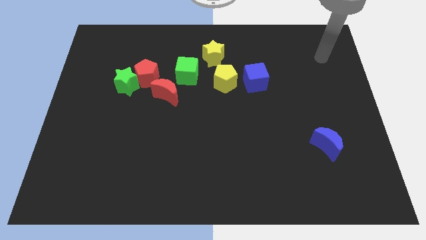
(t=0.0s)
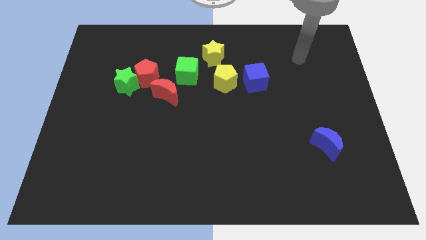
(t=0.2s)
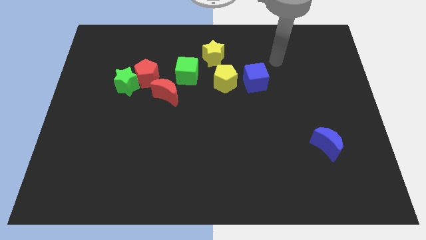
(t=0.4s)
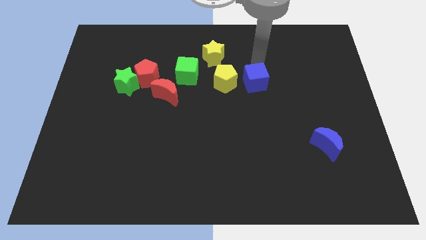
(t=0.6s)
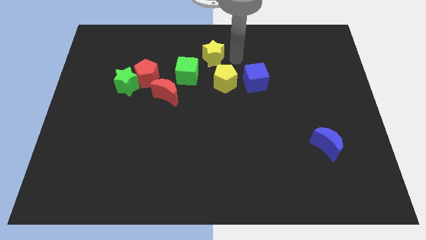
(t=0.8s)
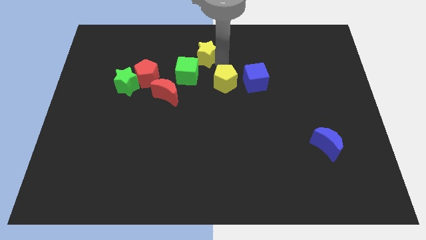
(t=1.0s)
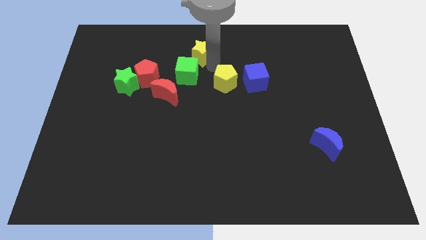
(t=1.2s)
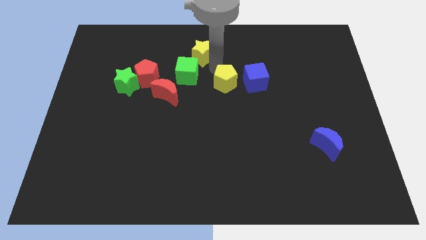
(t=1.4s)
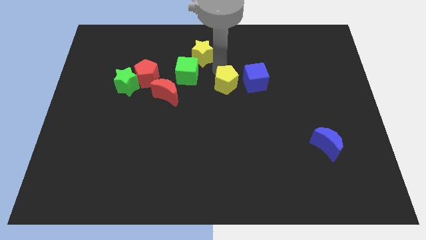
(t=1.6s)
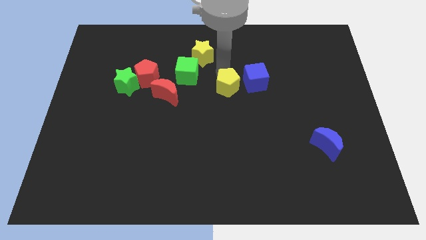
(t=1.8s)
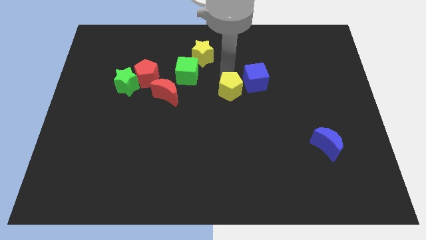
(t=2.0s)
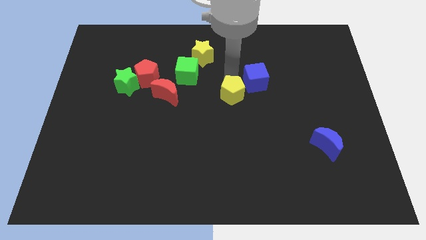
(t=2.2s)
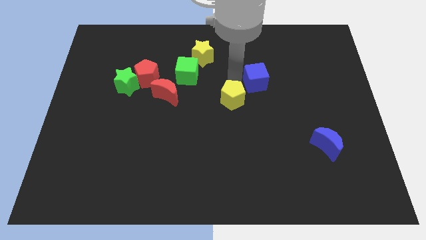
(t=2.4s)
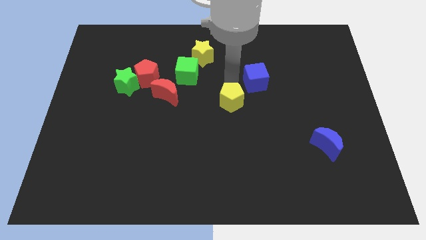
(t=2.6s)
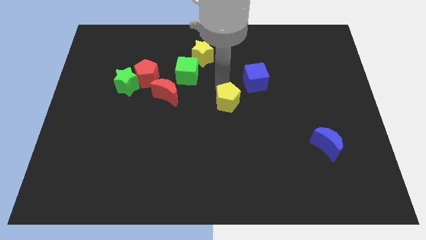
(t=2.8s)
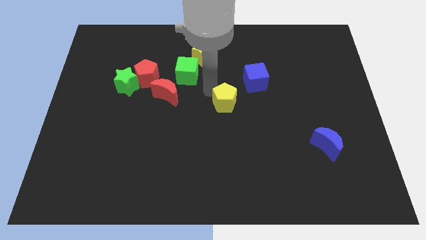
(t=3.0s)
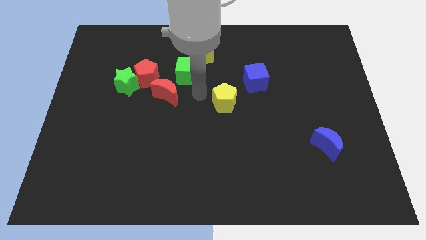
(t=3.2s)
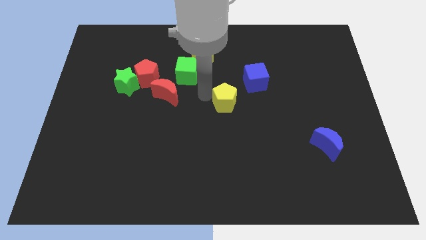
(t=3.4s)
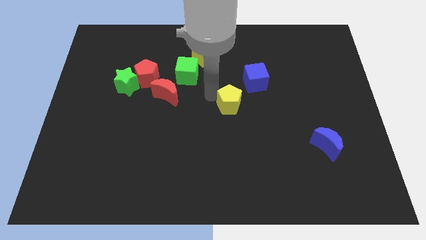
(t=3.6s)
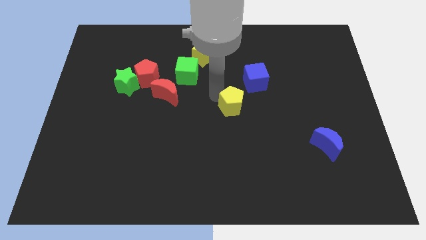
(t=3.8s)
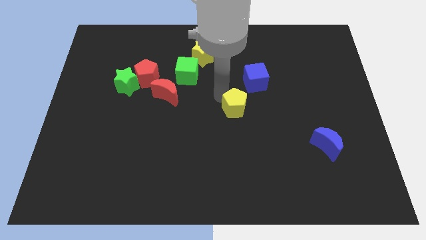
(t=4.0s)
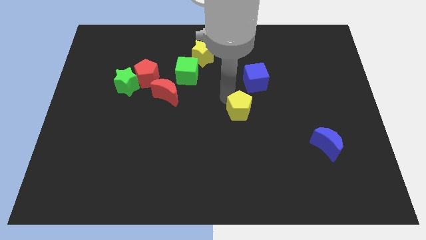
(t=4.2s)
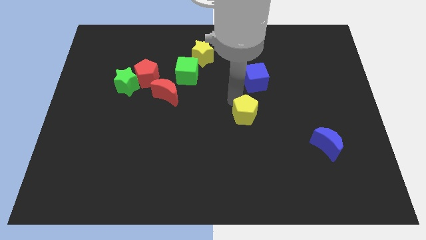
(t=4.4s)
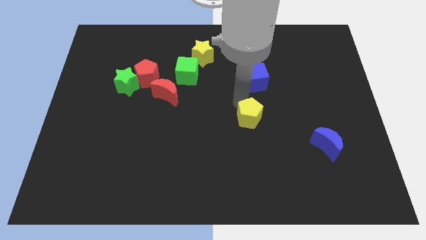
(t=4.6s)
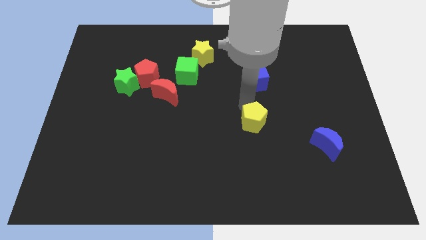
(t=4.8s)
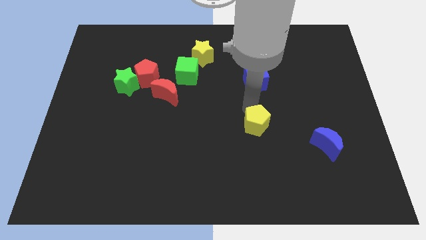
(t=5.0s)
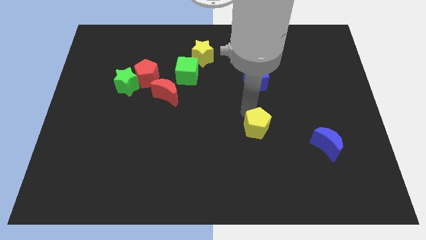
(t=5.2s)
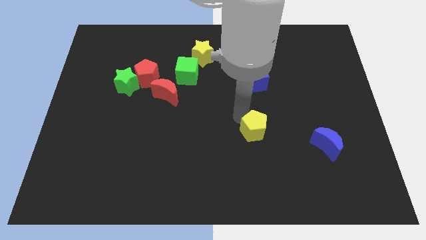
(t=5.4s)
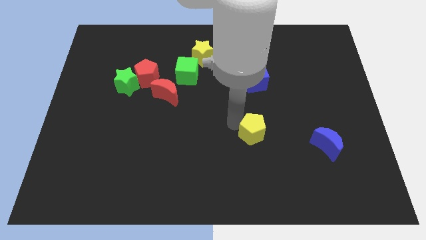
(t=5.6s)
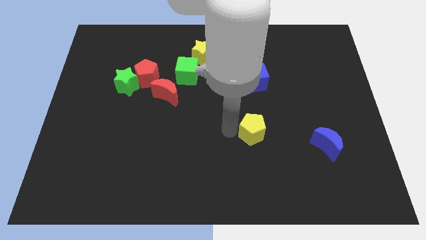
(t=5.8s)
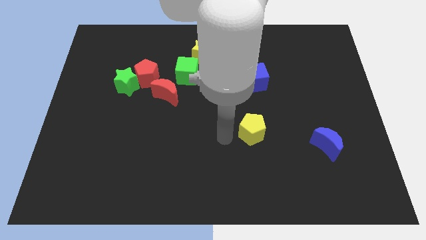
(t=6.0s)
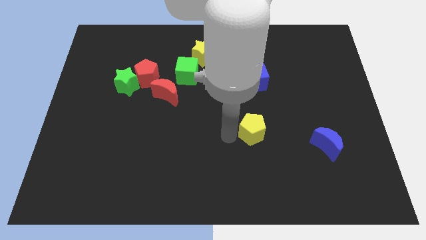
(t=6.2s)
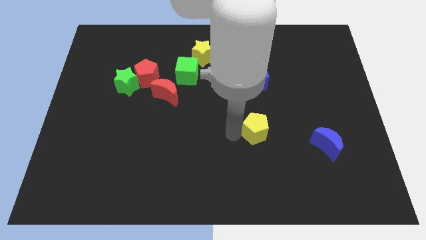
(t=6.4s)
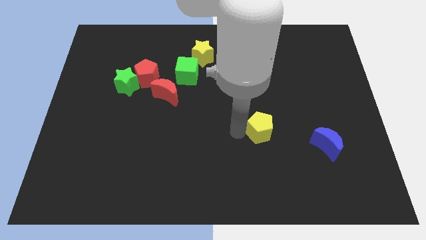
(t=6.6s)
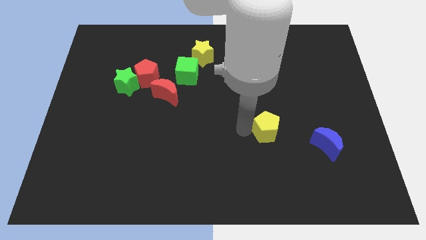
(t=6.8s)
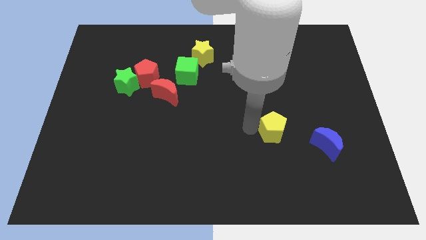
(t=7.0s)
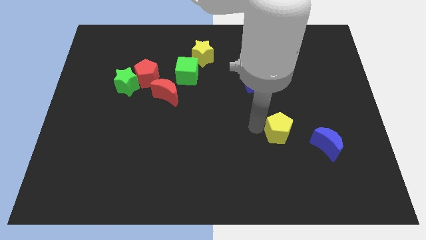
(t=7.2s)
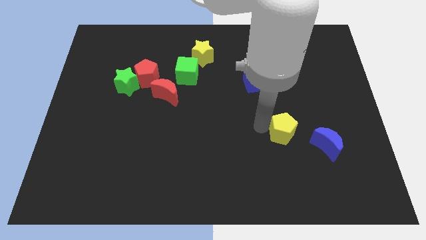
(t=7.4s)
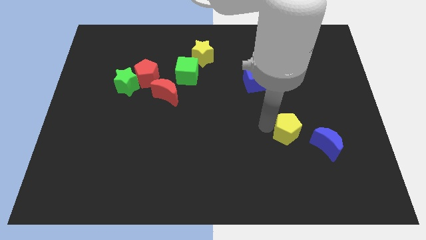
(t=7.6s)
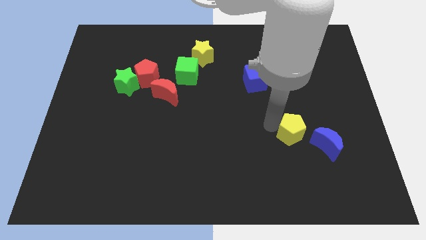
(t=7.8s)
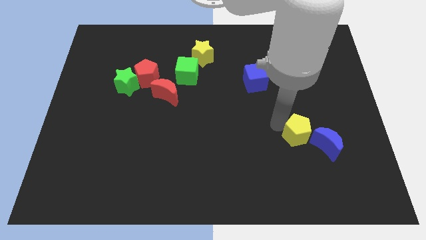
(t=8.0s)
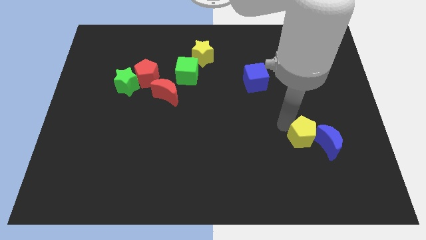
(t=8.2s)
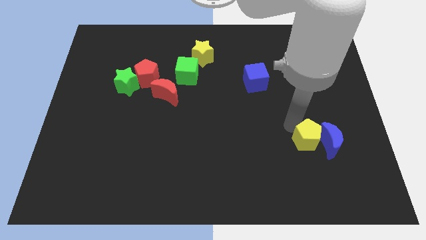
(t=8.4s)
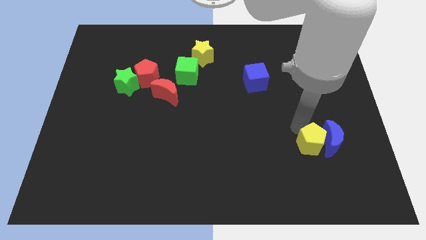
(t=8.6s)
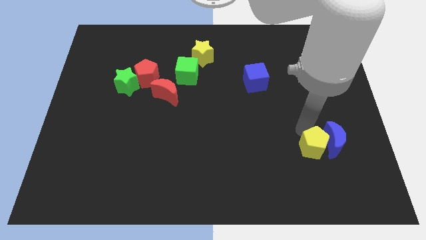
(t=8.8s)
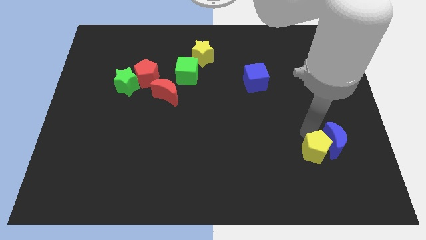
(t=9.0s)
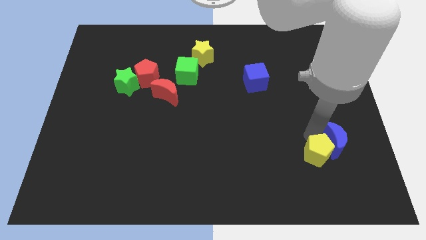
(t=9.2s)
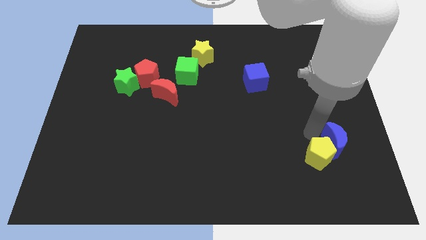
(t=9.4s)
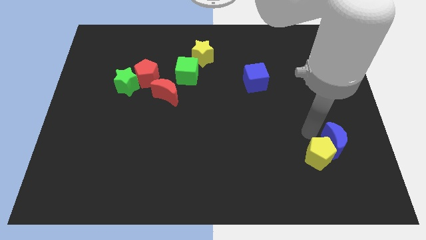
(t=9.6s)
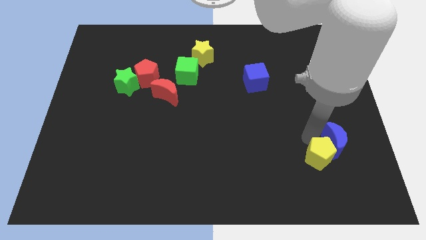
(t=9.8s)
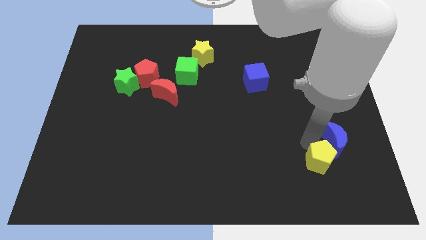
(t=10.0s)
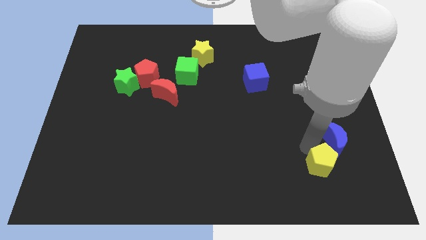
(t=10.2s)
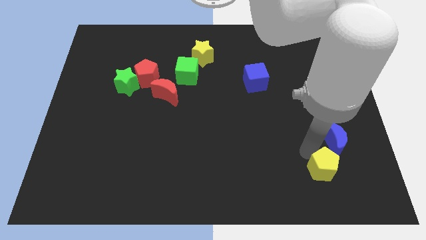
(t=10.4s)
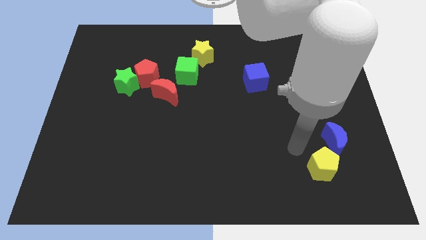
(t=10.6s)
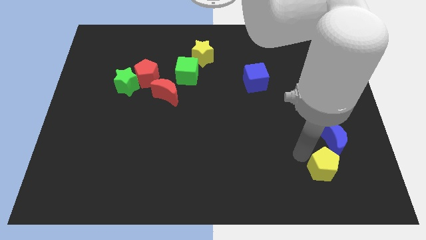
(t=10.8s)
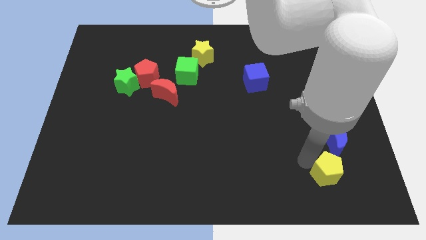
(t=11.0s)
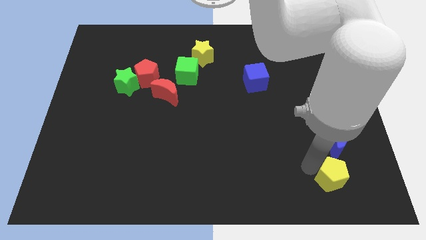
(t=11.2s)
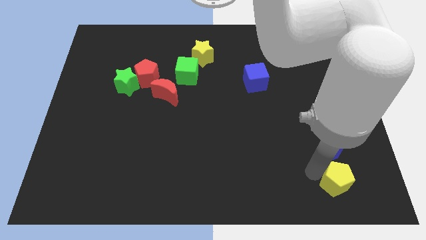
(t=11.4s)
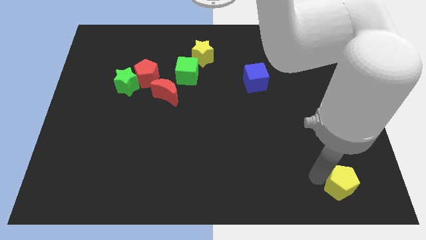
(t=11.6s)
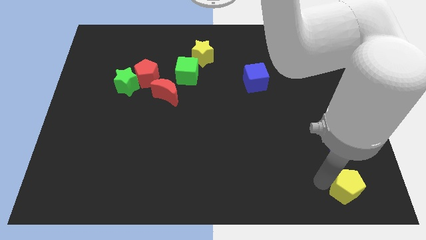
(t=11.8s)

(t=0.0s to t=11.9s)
push the yellow pentagon to the lower right corner

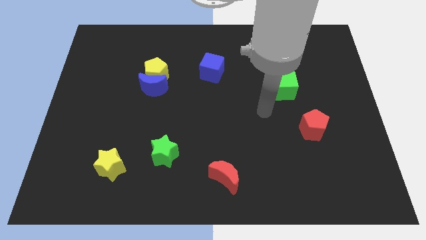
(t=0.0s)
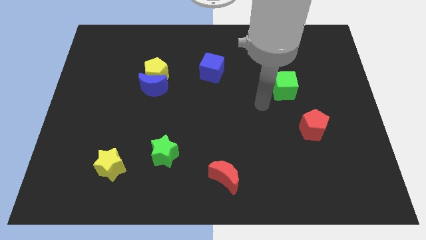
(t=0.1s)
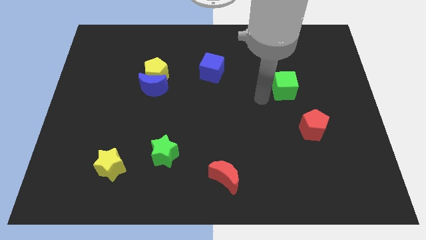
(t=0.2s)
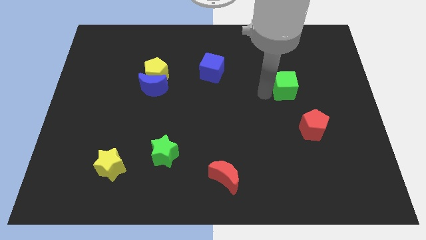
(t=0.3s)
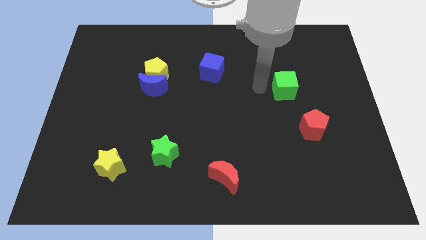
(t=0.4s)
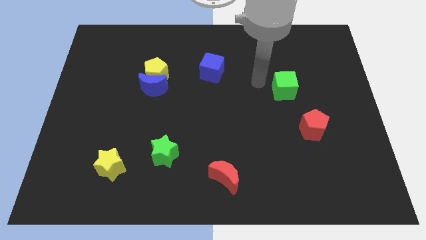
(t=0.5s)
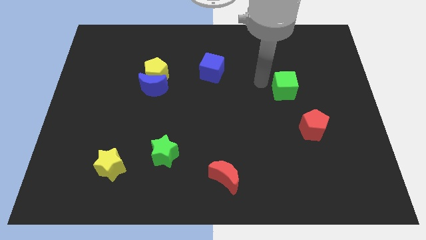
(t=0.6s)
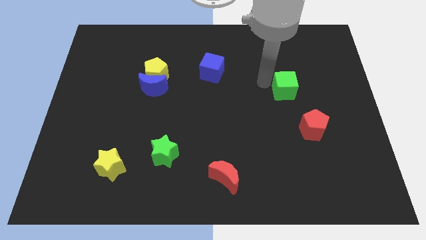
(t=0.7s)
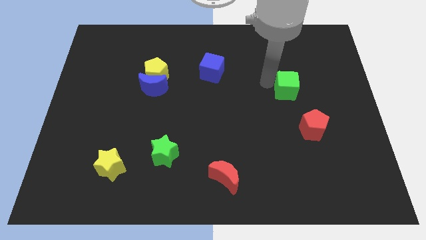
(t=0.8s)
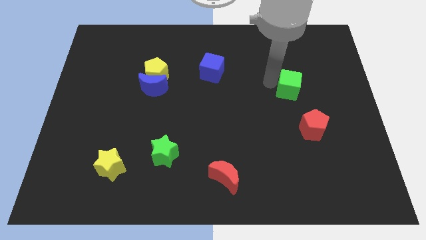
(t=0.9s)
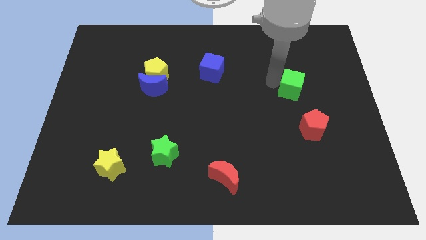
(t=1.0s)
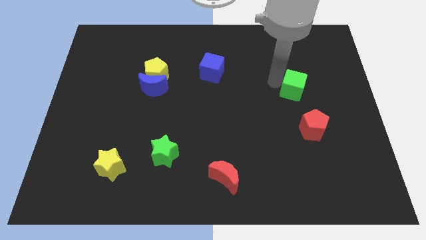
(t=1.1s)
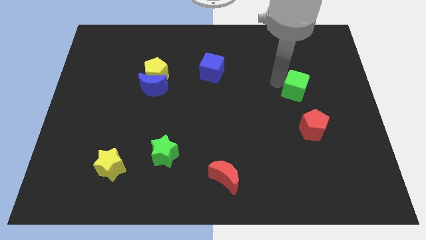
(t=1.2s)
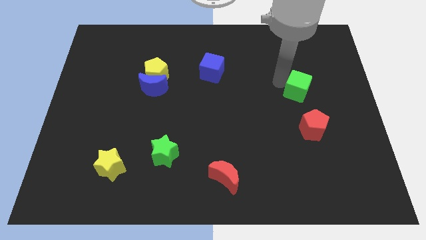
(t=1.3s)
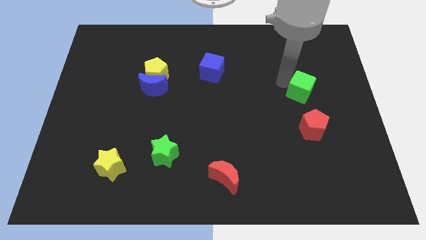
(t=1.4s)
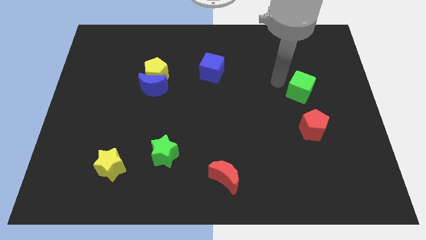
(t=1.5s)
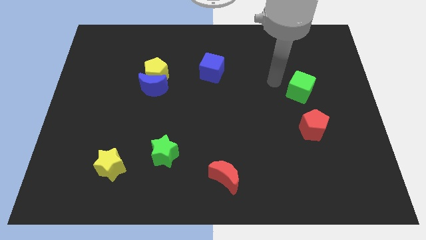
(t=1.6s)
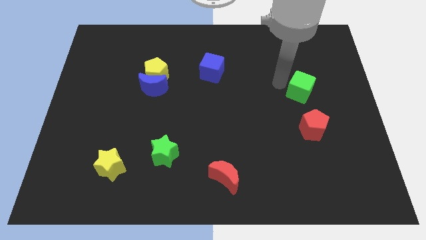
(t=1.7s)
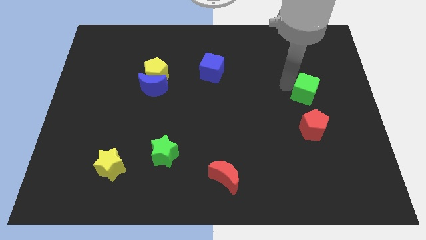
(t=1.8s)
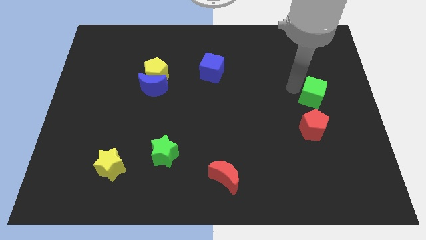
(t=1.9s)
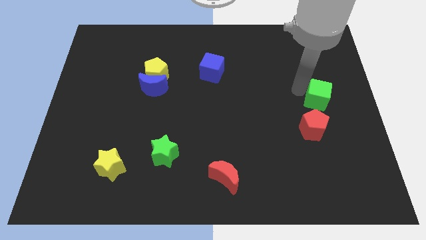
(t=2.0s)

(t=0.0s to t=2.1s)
put the green cube to the center right

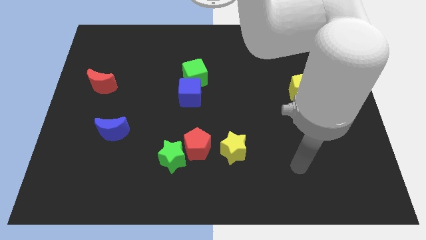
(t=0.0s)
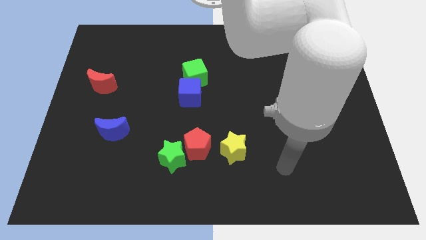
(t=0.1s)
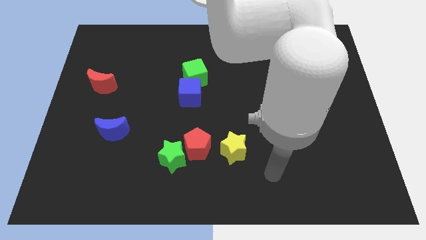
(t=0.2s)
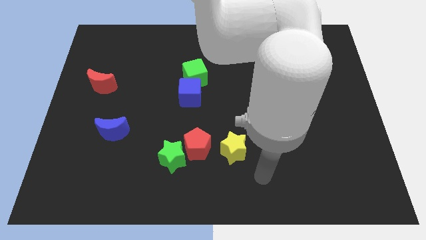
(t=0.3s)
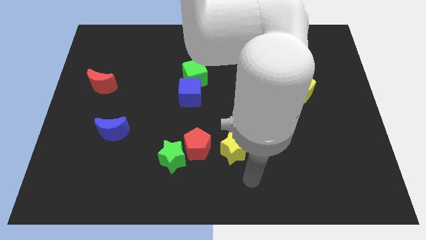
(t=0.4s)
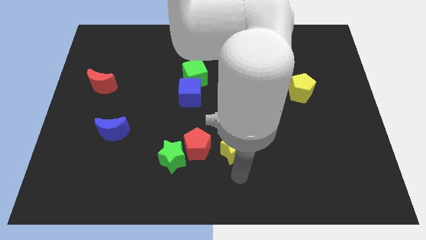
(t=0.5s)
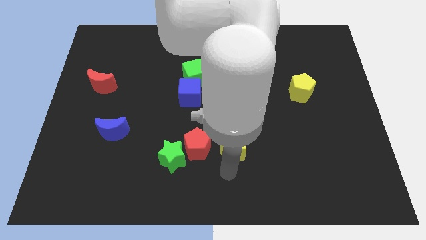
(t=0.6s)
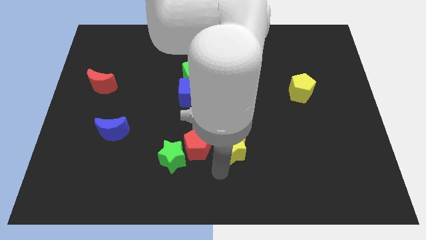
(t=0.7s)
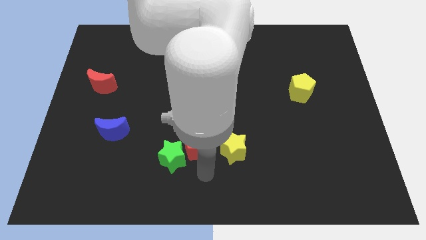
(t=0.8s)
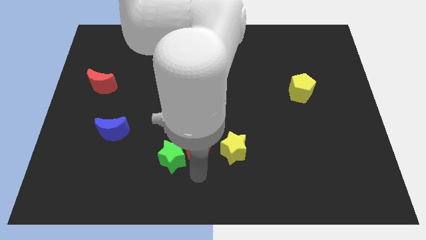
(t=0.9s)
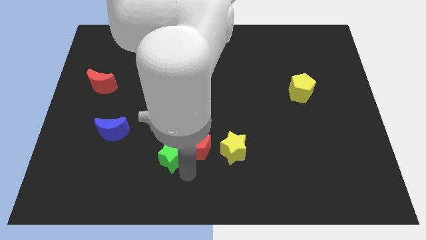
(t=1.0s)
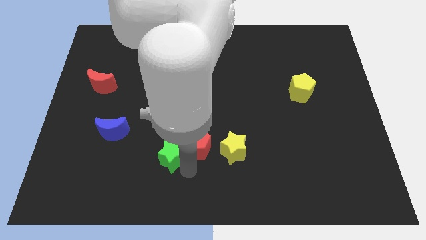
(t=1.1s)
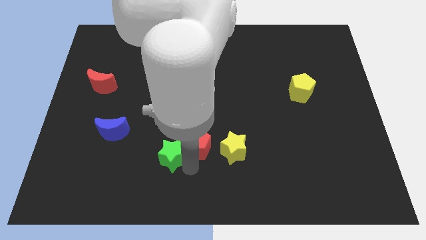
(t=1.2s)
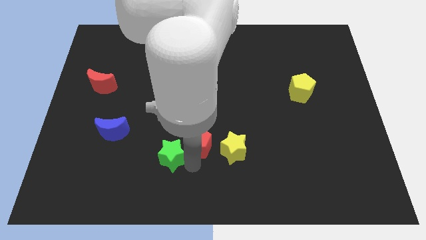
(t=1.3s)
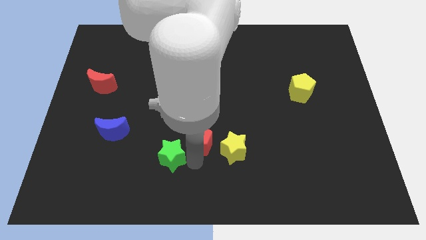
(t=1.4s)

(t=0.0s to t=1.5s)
put the red pentagon to the center
